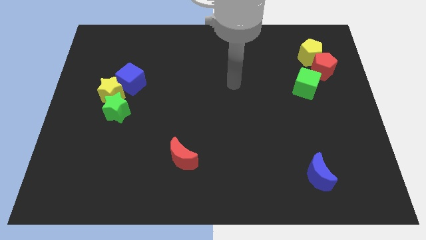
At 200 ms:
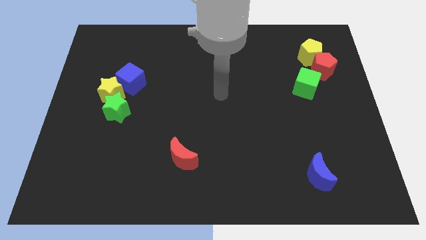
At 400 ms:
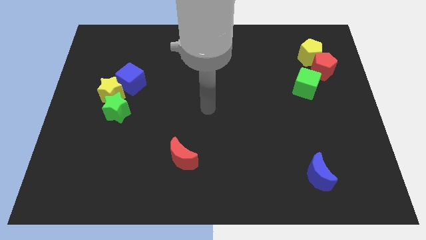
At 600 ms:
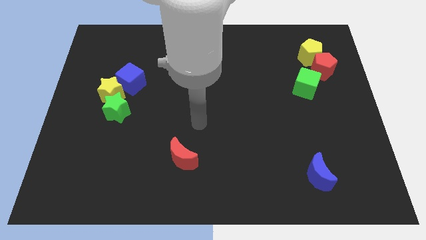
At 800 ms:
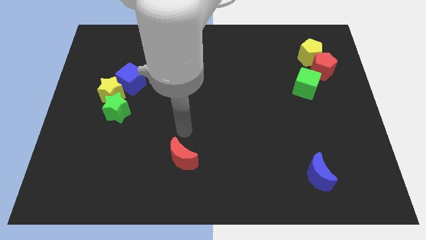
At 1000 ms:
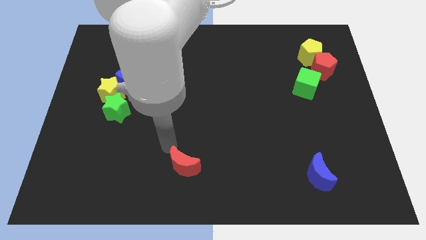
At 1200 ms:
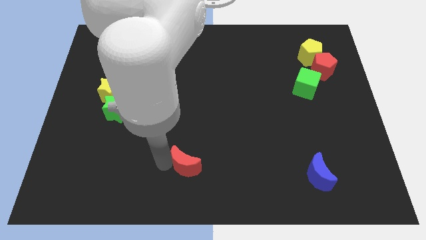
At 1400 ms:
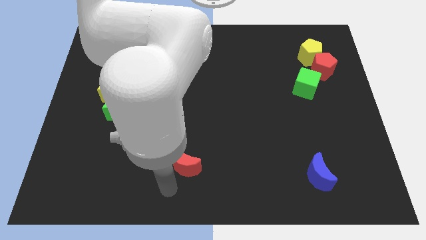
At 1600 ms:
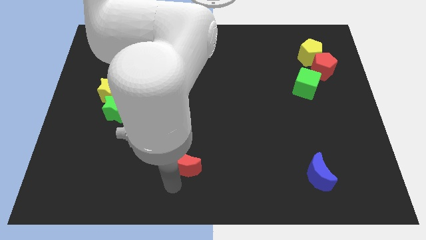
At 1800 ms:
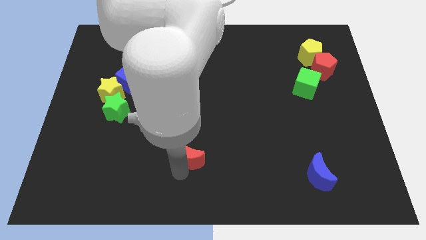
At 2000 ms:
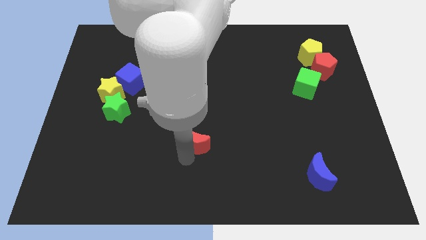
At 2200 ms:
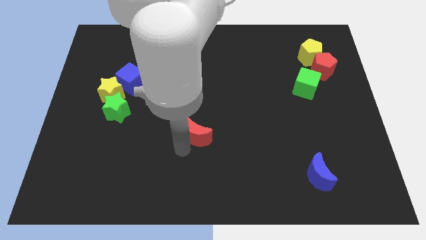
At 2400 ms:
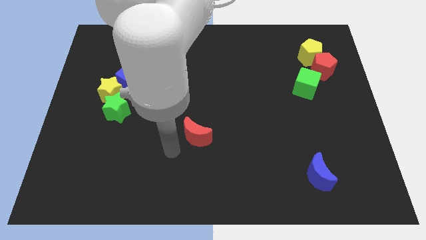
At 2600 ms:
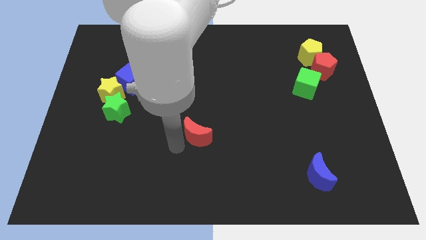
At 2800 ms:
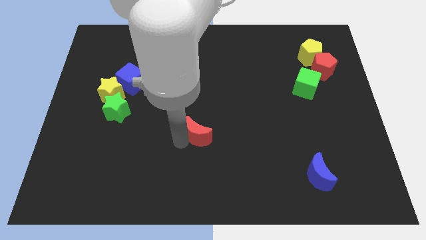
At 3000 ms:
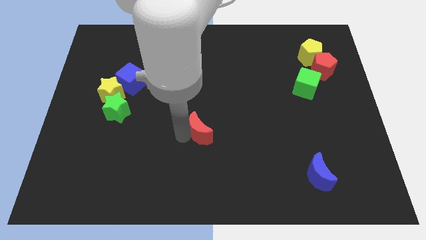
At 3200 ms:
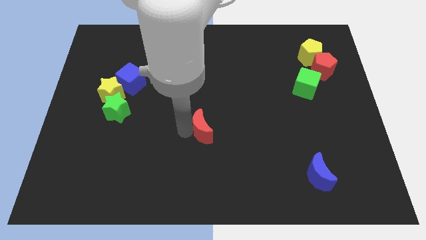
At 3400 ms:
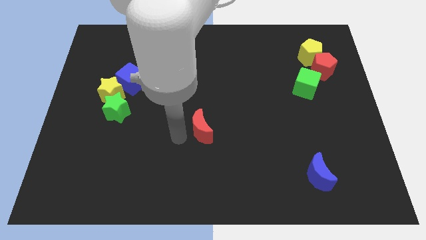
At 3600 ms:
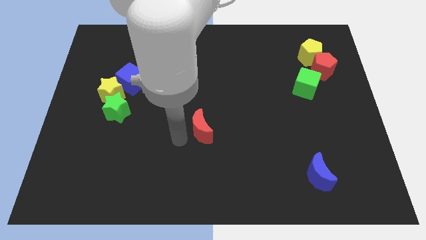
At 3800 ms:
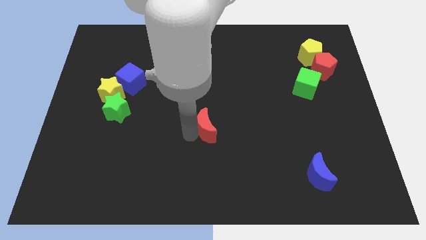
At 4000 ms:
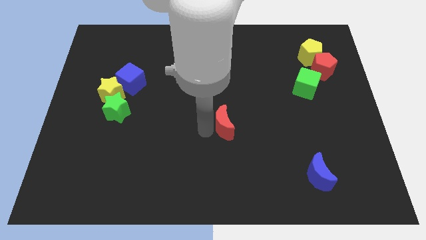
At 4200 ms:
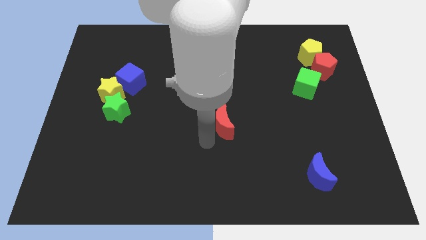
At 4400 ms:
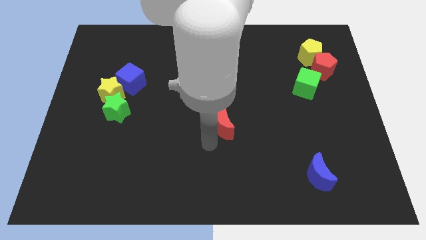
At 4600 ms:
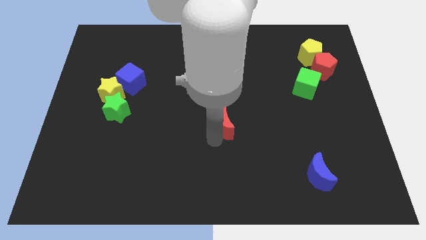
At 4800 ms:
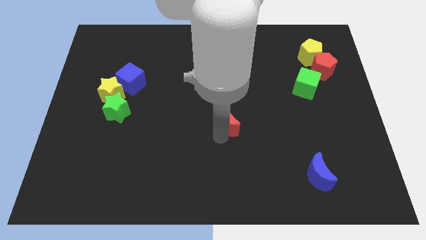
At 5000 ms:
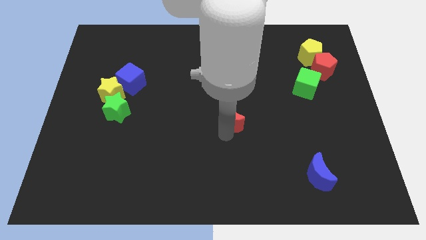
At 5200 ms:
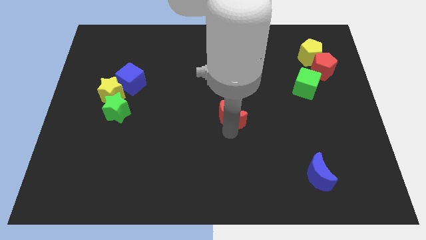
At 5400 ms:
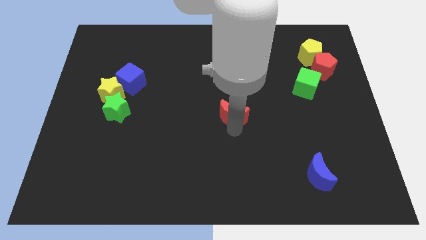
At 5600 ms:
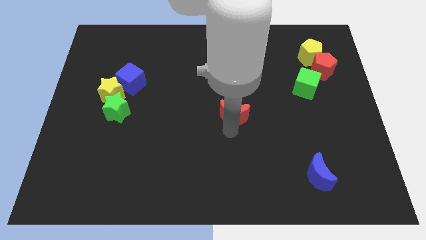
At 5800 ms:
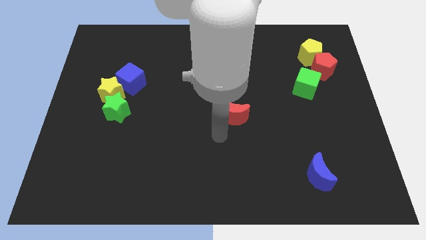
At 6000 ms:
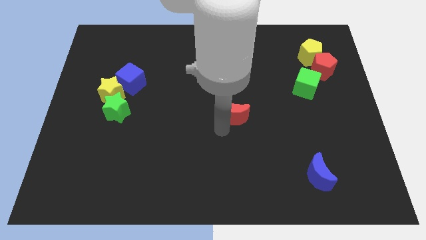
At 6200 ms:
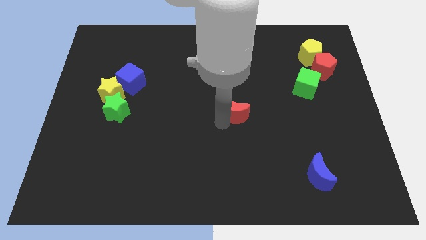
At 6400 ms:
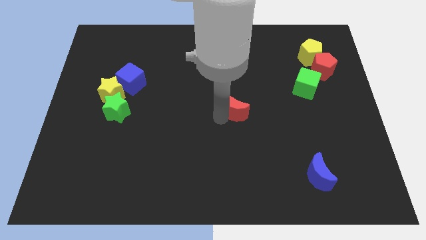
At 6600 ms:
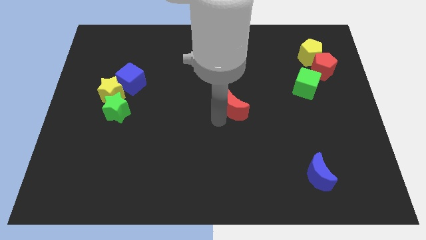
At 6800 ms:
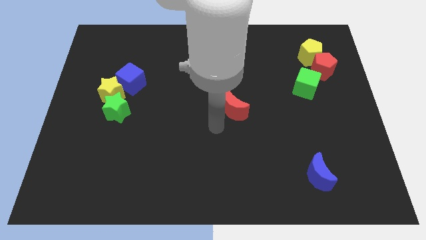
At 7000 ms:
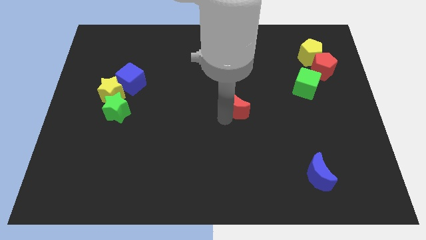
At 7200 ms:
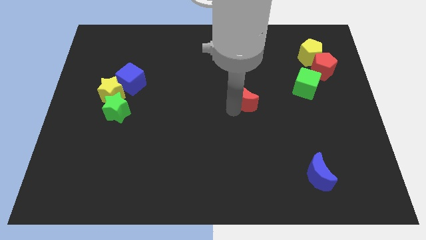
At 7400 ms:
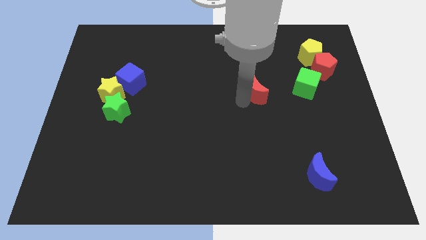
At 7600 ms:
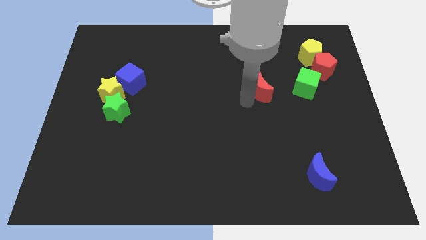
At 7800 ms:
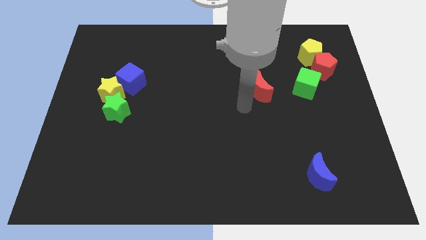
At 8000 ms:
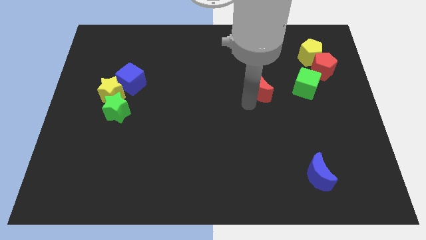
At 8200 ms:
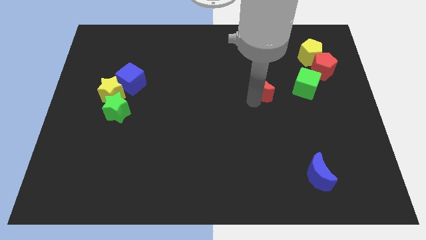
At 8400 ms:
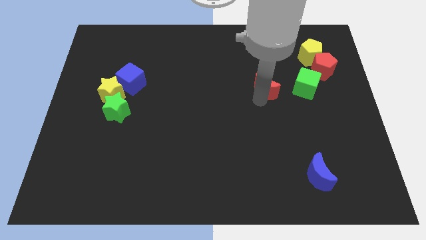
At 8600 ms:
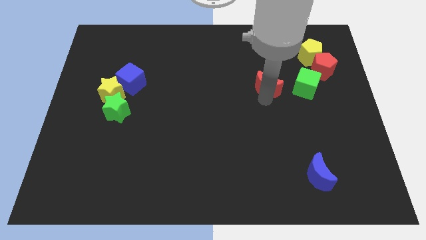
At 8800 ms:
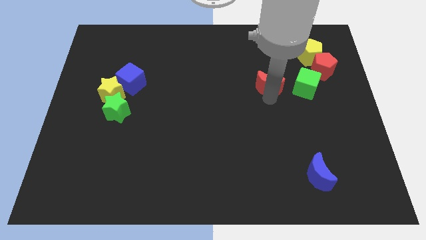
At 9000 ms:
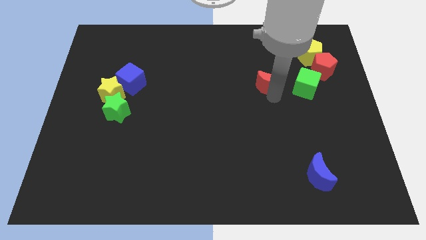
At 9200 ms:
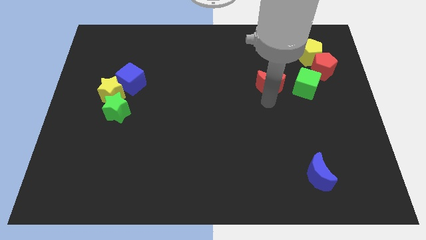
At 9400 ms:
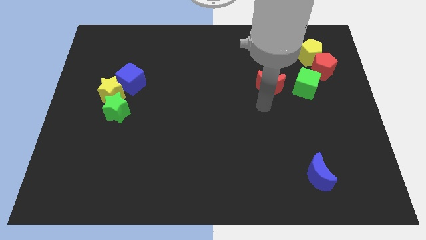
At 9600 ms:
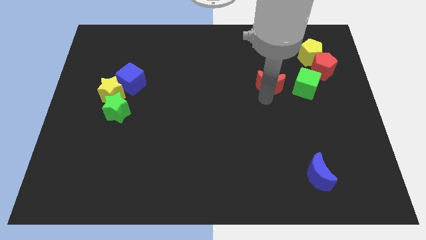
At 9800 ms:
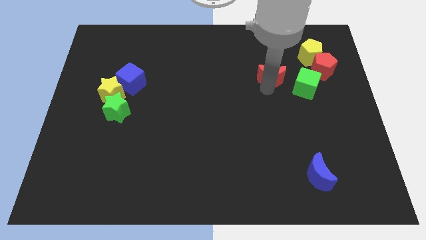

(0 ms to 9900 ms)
push the red moon to the left of the red pentagon

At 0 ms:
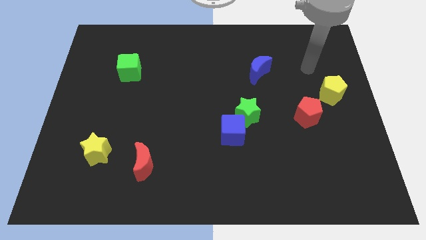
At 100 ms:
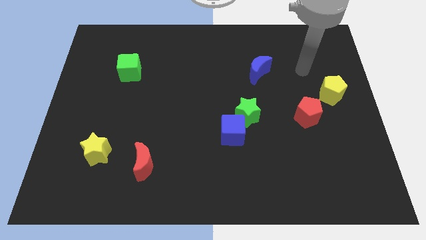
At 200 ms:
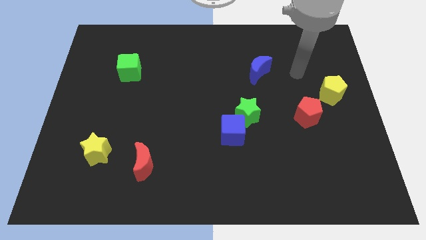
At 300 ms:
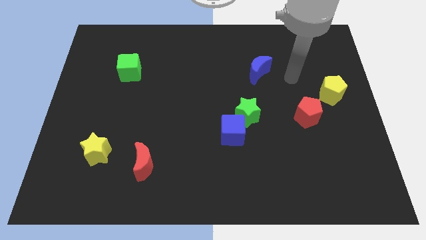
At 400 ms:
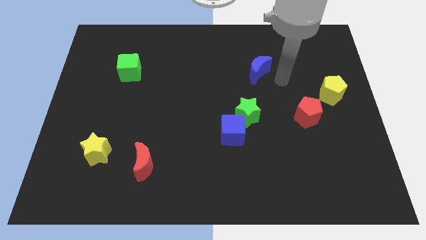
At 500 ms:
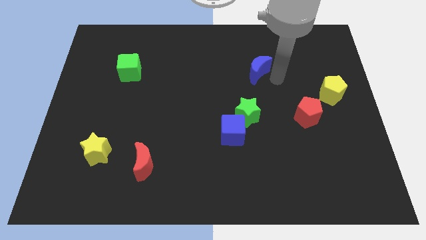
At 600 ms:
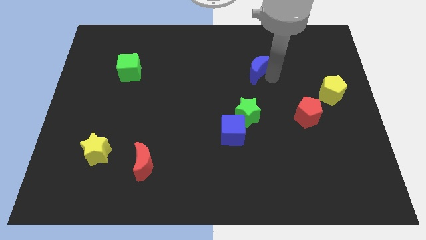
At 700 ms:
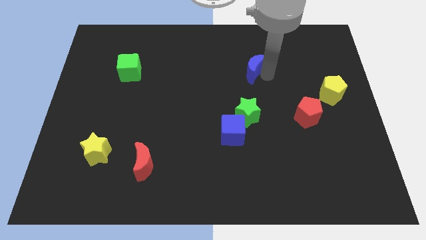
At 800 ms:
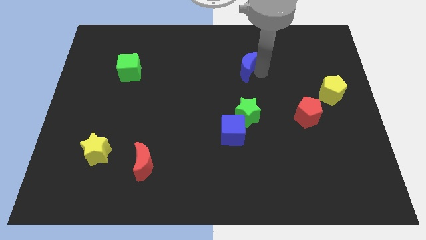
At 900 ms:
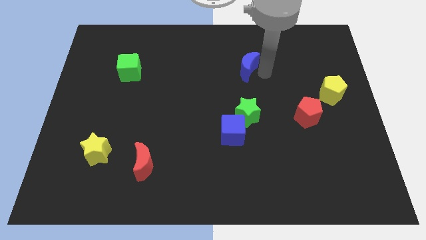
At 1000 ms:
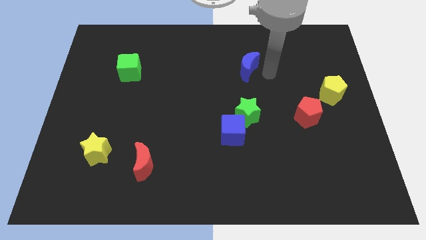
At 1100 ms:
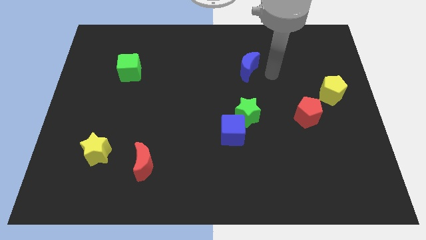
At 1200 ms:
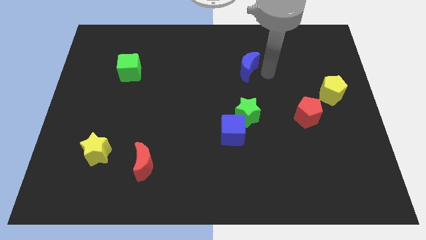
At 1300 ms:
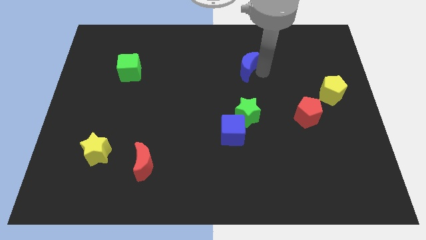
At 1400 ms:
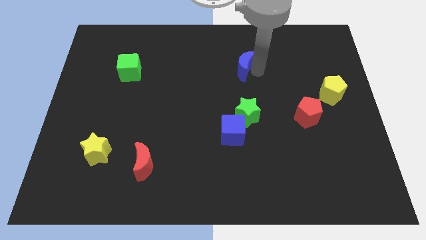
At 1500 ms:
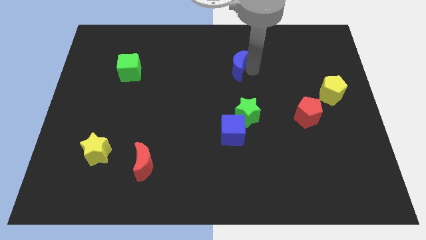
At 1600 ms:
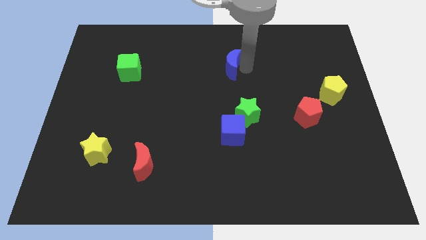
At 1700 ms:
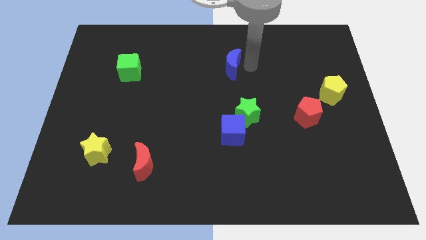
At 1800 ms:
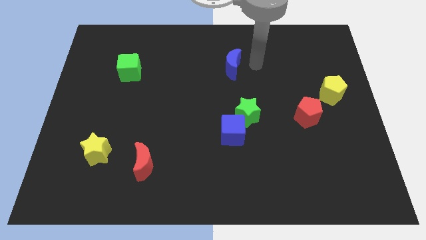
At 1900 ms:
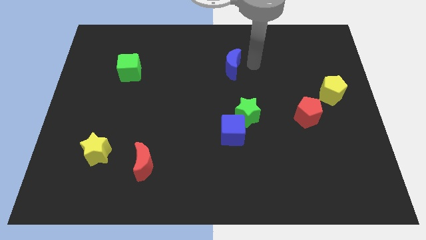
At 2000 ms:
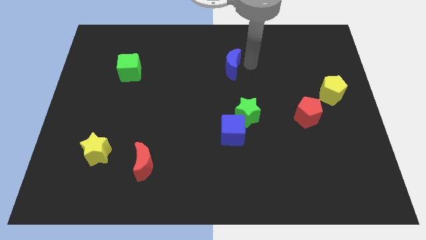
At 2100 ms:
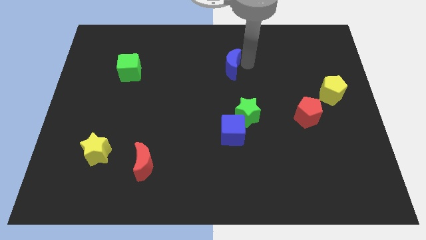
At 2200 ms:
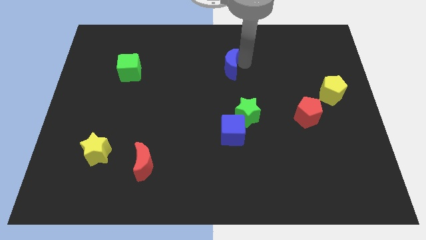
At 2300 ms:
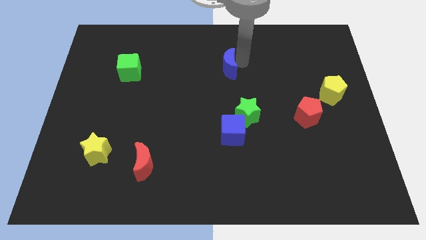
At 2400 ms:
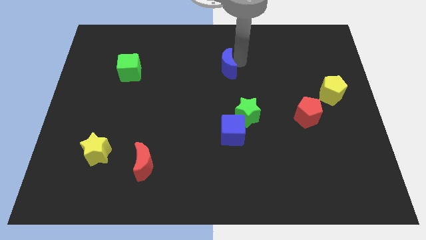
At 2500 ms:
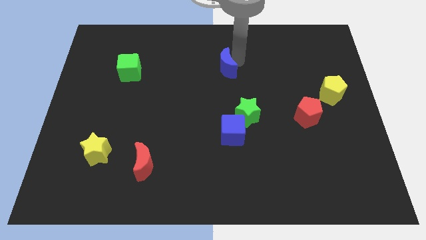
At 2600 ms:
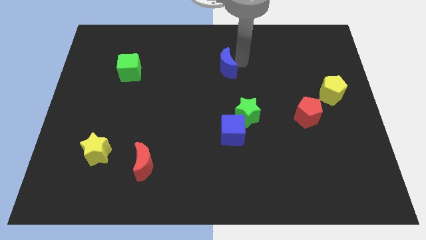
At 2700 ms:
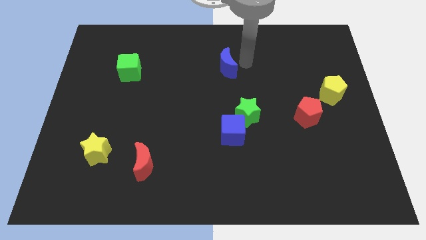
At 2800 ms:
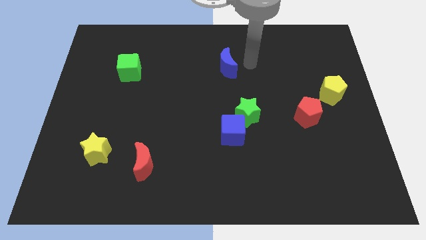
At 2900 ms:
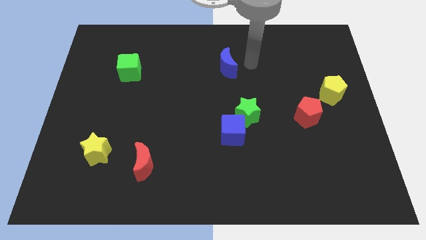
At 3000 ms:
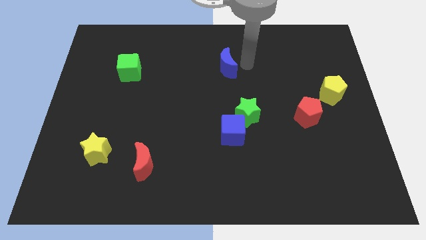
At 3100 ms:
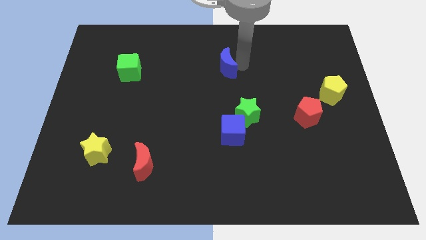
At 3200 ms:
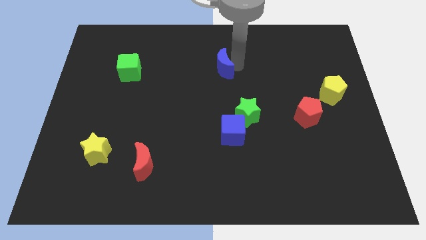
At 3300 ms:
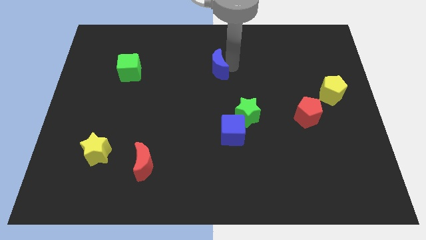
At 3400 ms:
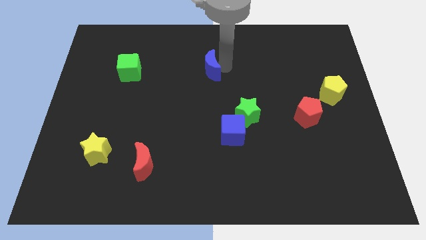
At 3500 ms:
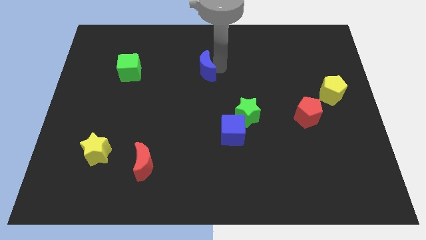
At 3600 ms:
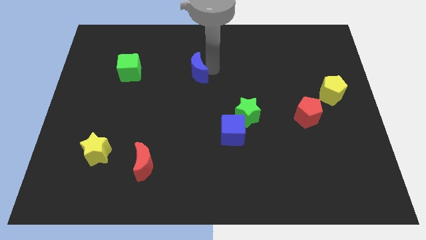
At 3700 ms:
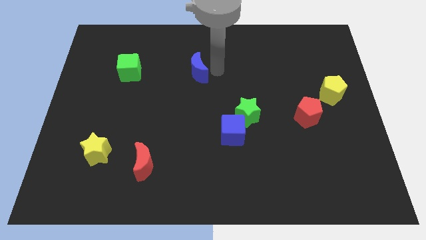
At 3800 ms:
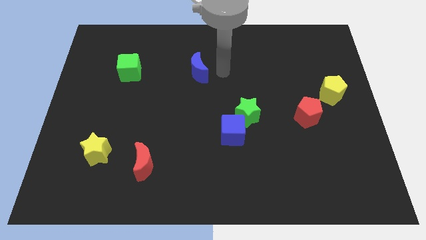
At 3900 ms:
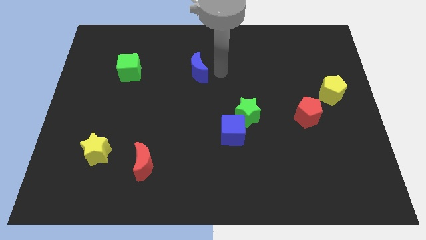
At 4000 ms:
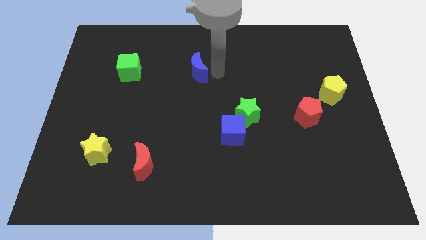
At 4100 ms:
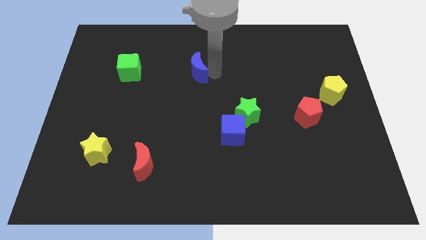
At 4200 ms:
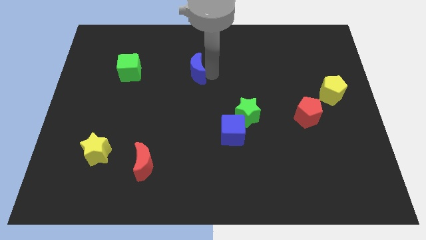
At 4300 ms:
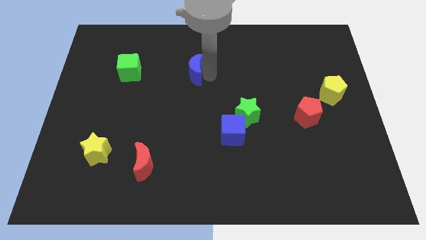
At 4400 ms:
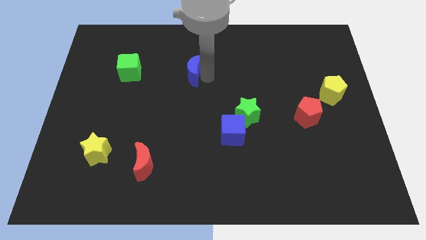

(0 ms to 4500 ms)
move the blue moon just right of the green cube
